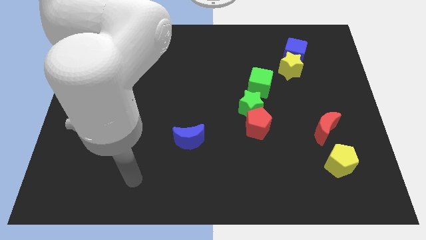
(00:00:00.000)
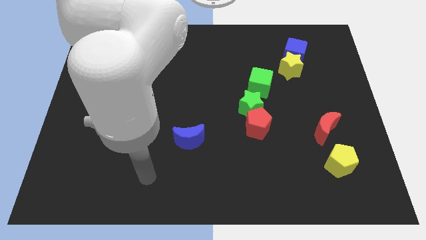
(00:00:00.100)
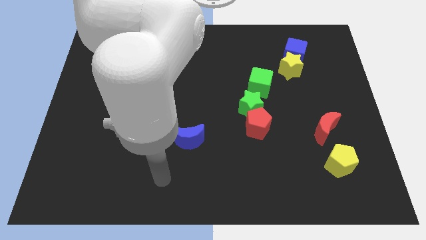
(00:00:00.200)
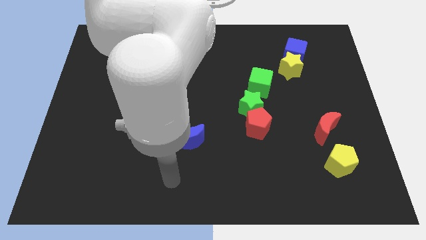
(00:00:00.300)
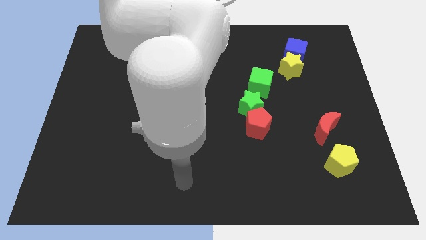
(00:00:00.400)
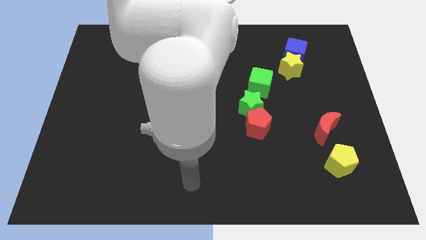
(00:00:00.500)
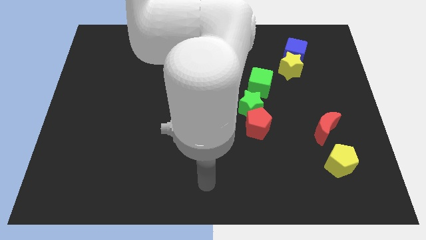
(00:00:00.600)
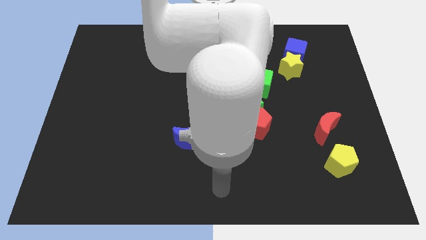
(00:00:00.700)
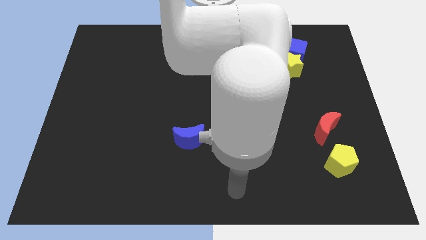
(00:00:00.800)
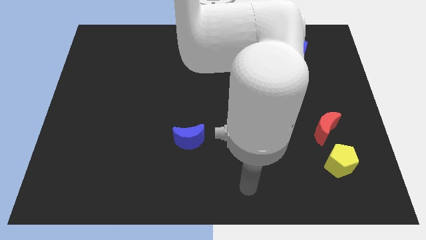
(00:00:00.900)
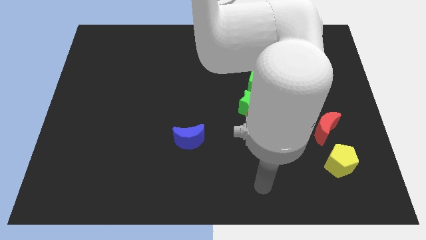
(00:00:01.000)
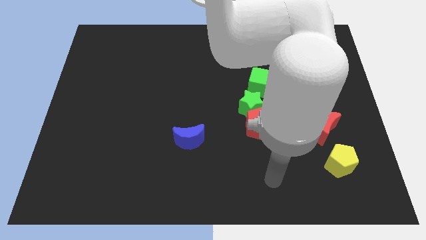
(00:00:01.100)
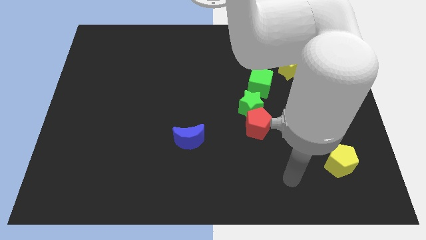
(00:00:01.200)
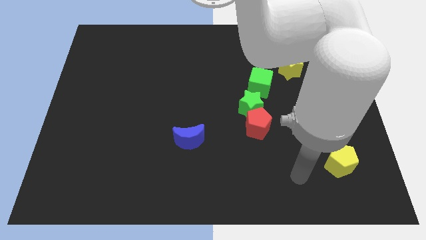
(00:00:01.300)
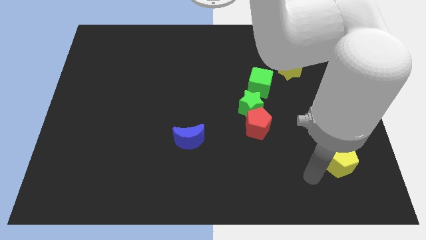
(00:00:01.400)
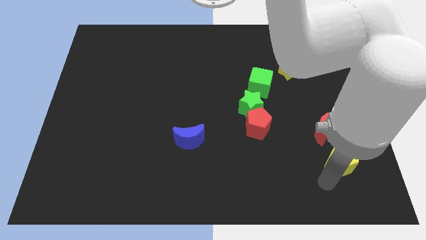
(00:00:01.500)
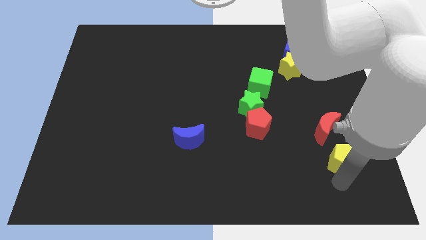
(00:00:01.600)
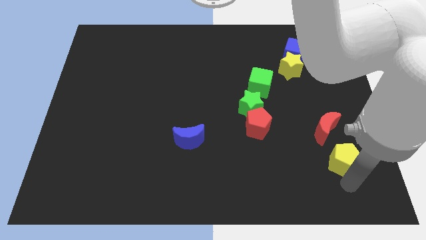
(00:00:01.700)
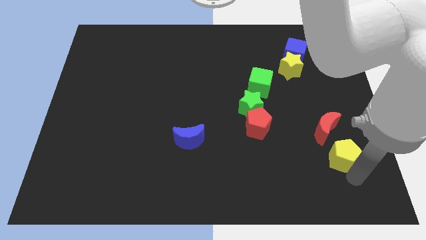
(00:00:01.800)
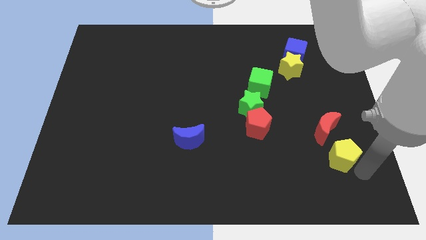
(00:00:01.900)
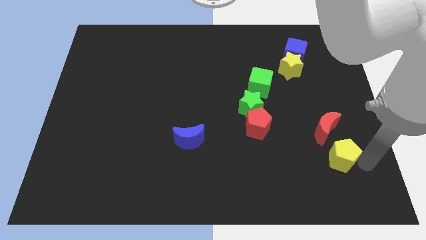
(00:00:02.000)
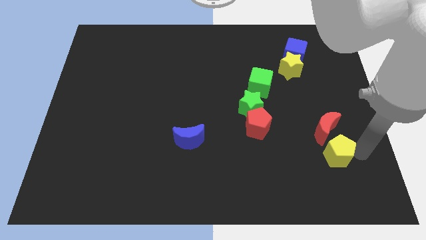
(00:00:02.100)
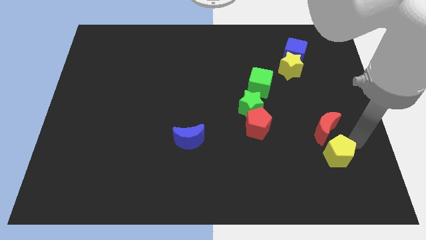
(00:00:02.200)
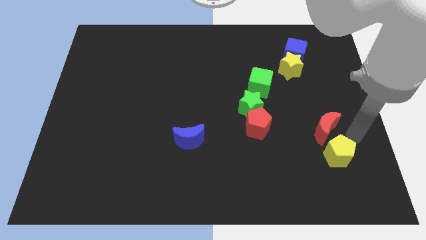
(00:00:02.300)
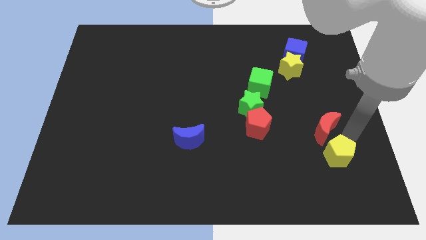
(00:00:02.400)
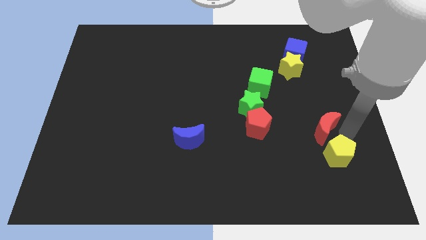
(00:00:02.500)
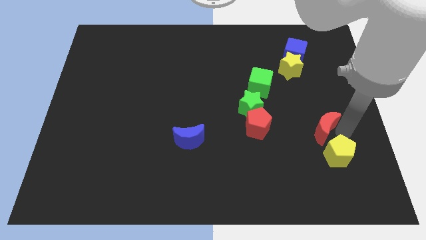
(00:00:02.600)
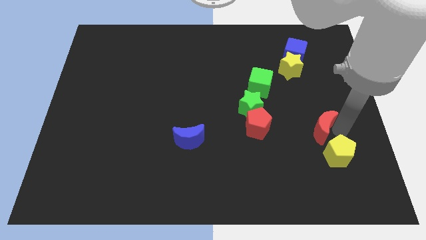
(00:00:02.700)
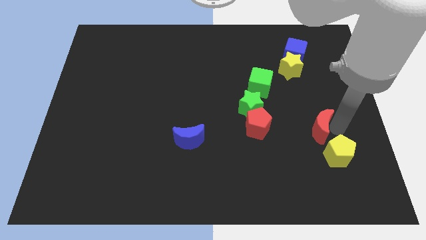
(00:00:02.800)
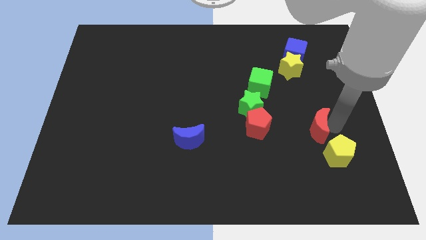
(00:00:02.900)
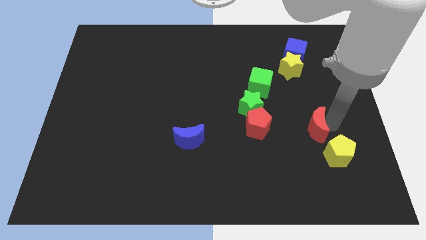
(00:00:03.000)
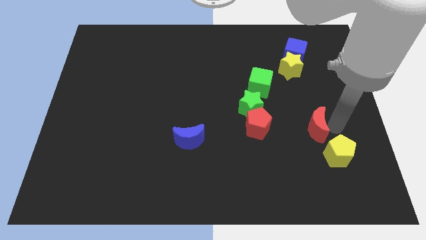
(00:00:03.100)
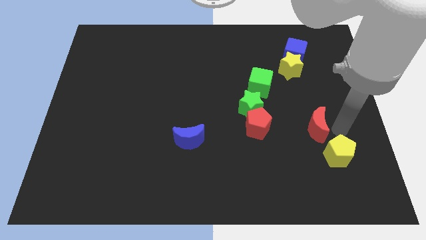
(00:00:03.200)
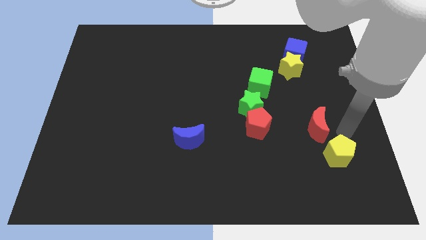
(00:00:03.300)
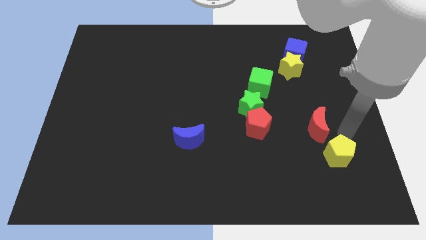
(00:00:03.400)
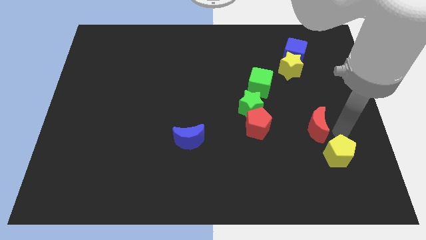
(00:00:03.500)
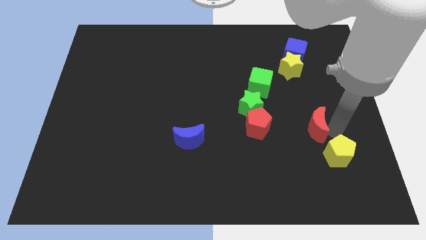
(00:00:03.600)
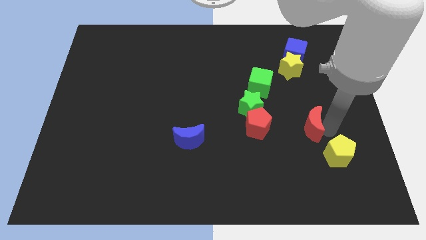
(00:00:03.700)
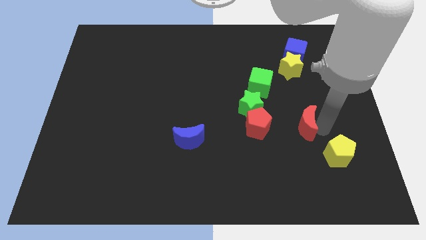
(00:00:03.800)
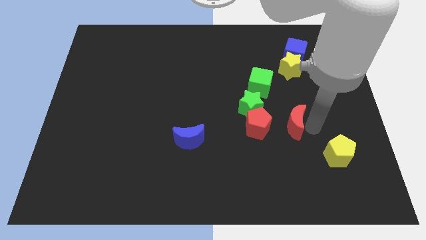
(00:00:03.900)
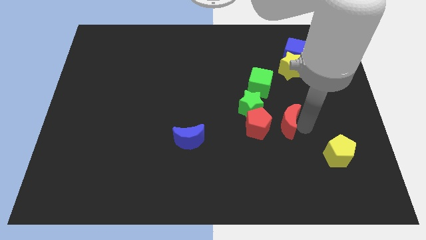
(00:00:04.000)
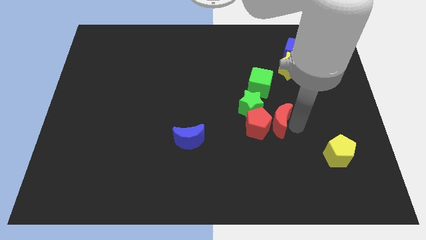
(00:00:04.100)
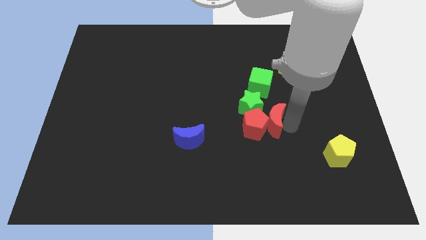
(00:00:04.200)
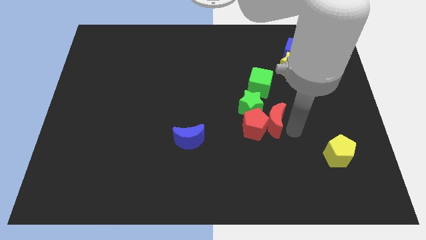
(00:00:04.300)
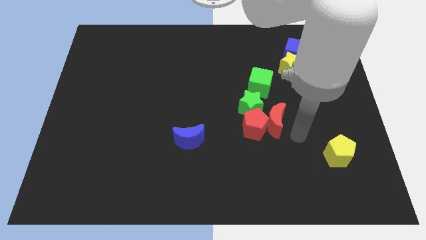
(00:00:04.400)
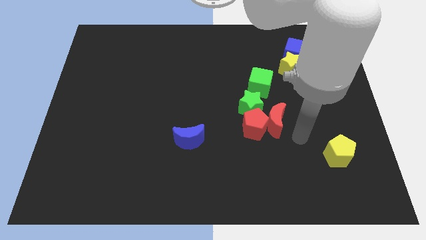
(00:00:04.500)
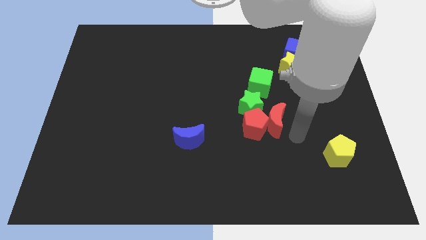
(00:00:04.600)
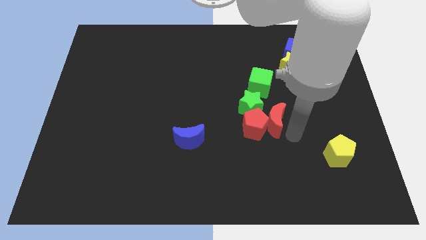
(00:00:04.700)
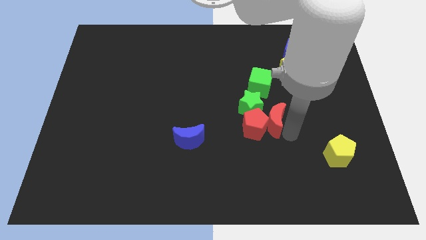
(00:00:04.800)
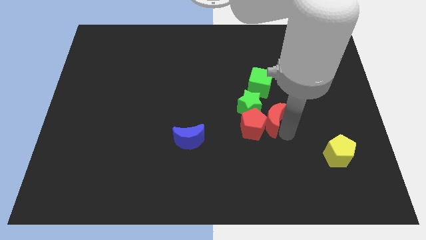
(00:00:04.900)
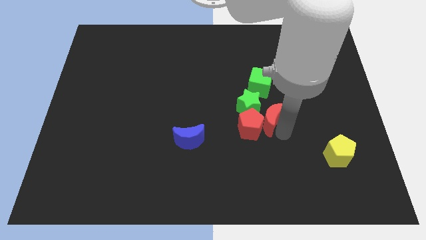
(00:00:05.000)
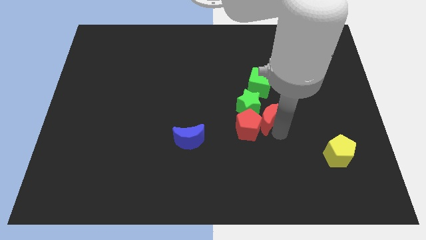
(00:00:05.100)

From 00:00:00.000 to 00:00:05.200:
slide the red moon towards the green star

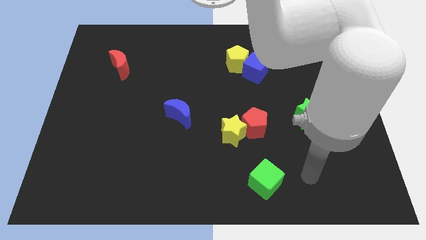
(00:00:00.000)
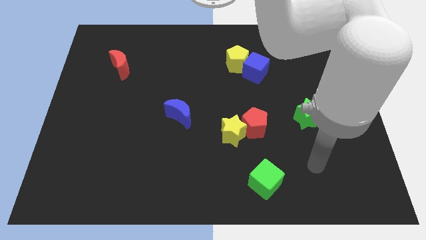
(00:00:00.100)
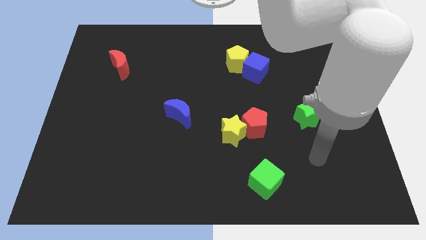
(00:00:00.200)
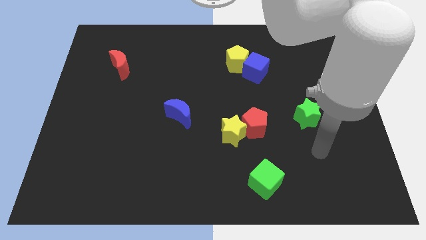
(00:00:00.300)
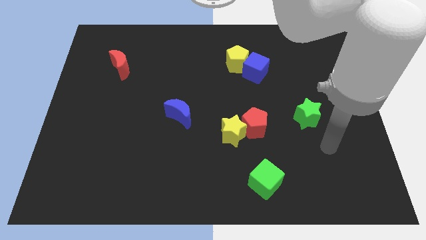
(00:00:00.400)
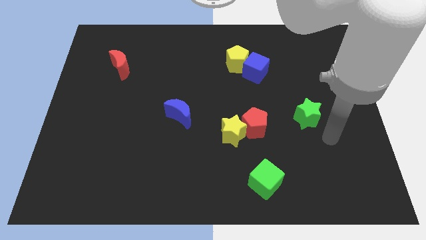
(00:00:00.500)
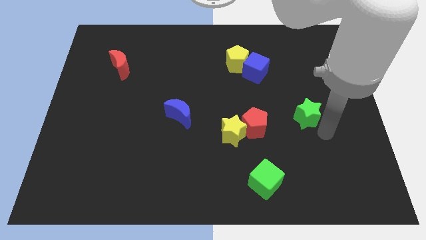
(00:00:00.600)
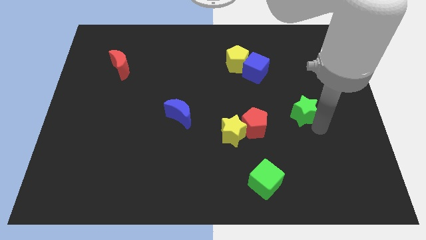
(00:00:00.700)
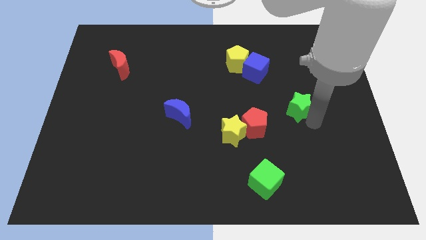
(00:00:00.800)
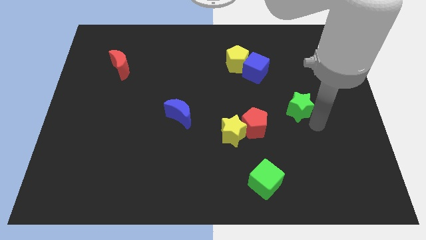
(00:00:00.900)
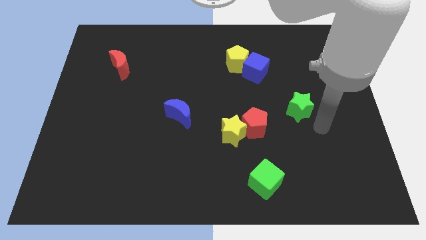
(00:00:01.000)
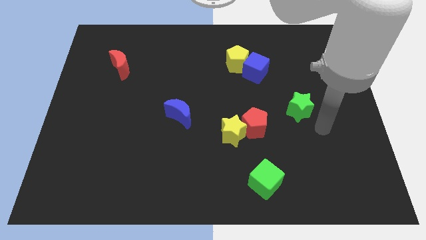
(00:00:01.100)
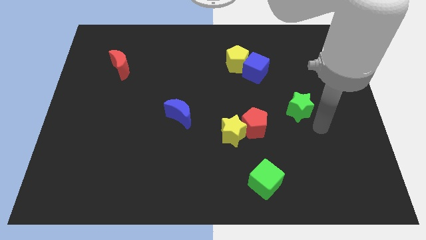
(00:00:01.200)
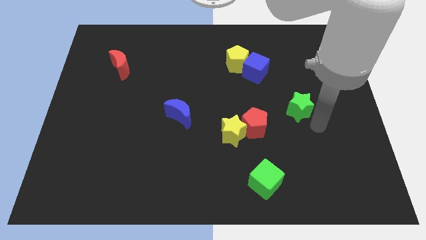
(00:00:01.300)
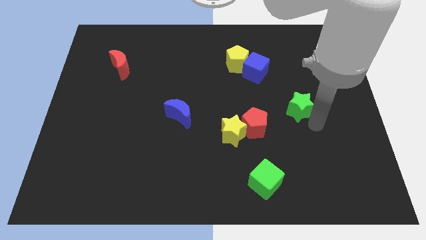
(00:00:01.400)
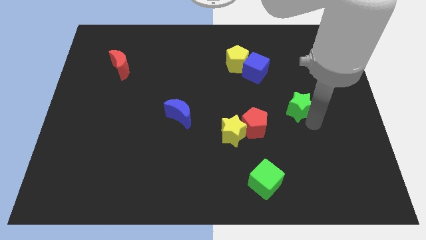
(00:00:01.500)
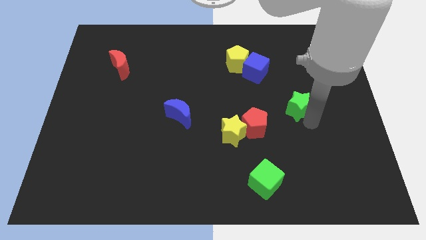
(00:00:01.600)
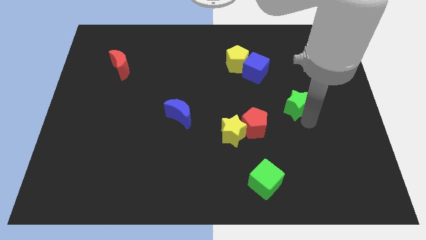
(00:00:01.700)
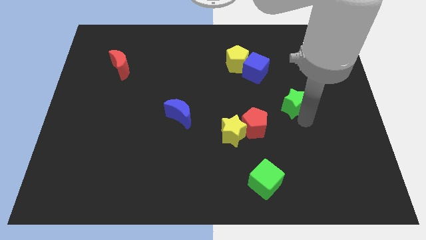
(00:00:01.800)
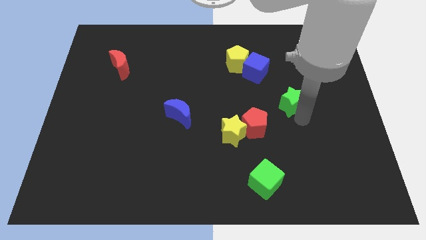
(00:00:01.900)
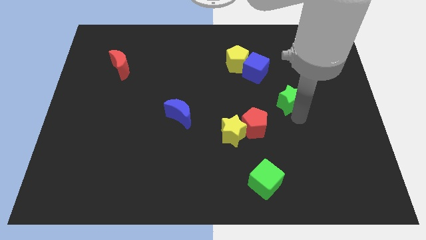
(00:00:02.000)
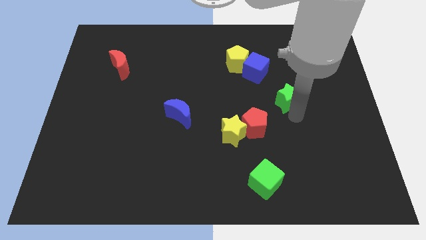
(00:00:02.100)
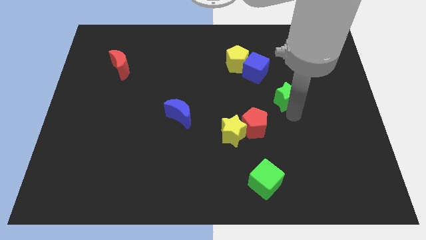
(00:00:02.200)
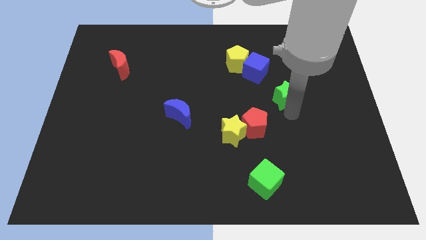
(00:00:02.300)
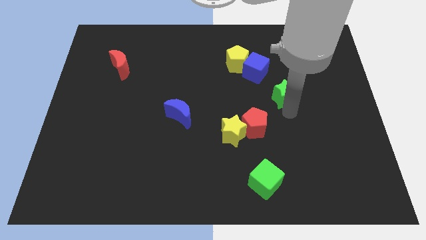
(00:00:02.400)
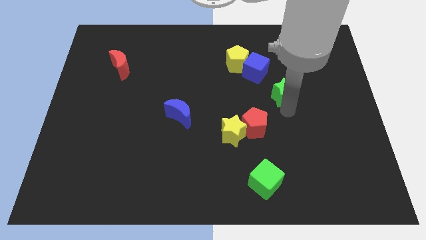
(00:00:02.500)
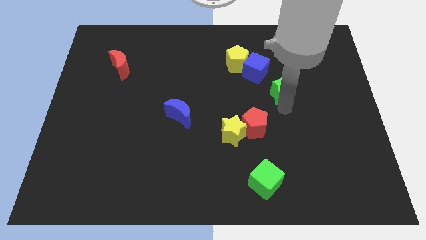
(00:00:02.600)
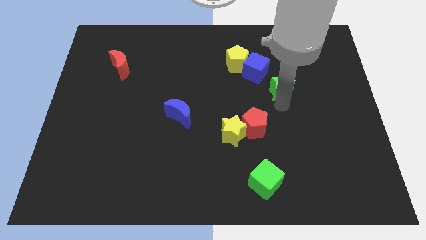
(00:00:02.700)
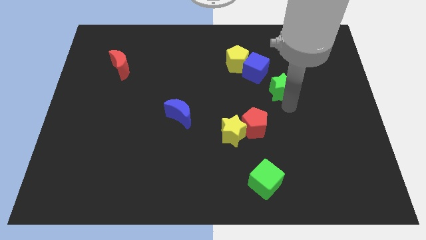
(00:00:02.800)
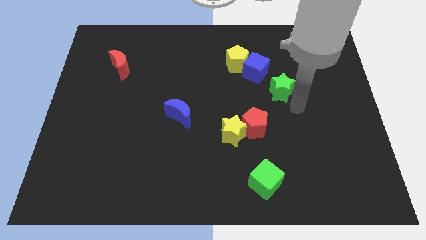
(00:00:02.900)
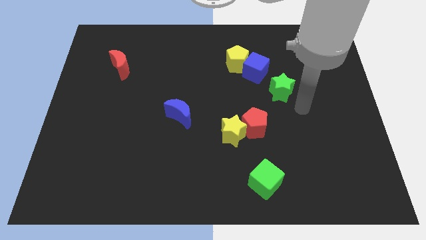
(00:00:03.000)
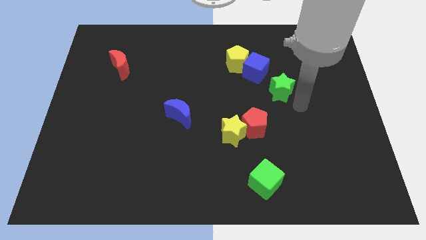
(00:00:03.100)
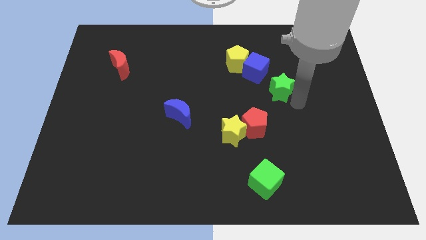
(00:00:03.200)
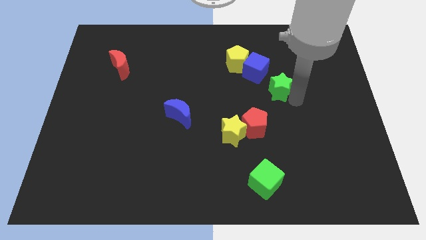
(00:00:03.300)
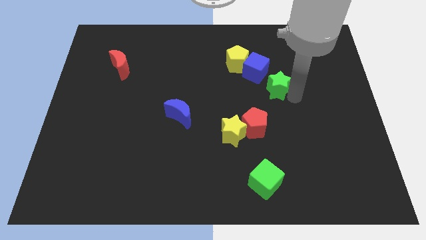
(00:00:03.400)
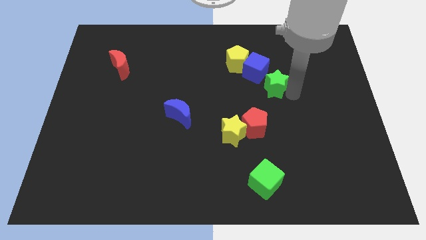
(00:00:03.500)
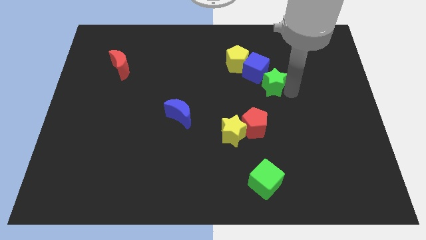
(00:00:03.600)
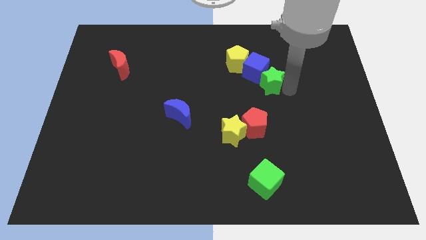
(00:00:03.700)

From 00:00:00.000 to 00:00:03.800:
move the green star to the blue cube
